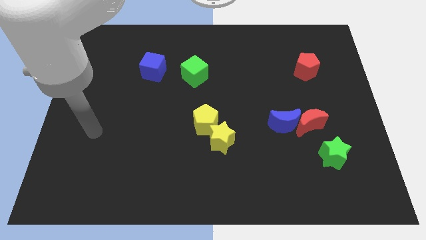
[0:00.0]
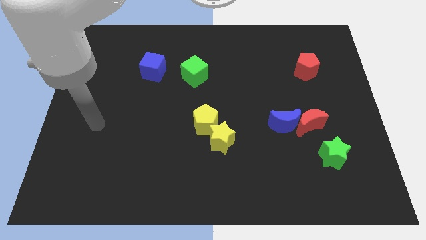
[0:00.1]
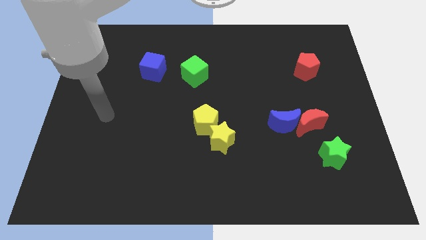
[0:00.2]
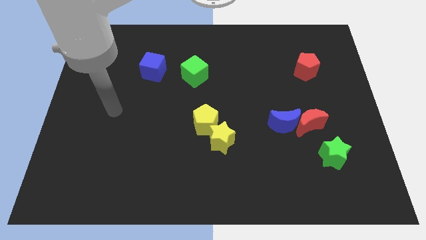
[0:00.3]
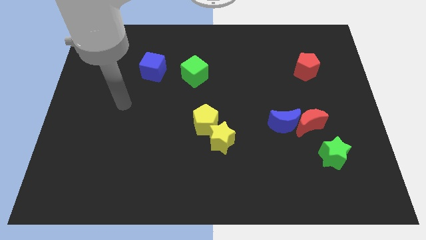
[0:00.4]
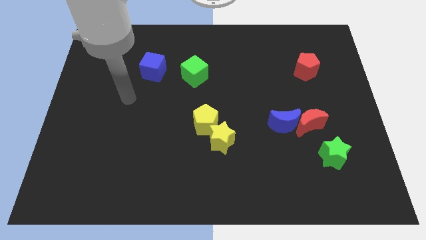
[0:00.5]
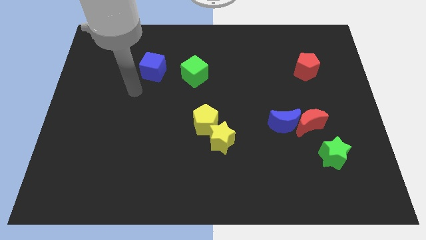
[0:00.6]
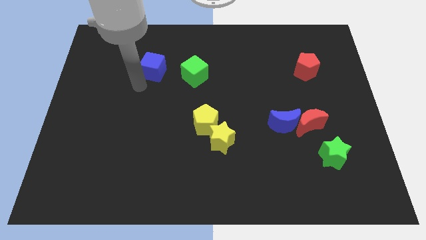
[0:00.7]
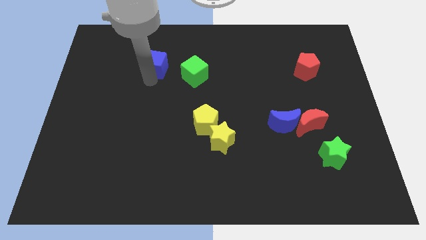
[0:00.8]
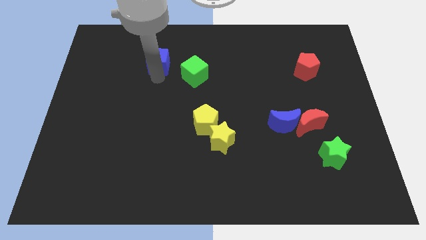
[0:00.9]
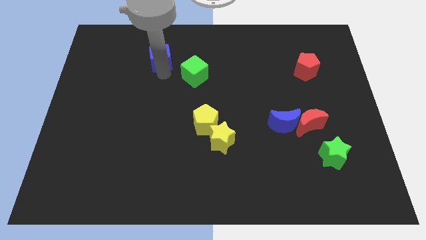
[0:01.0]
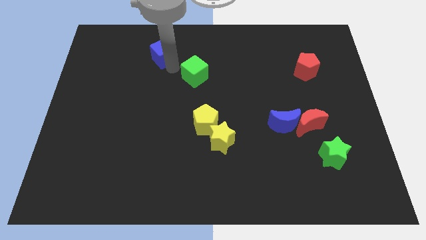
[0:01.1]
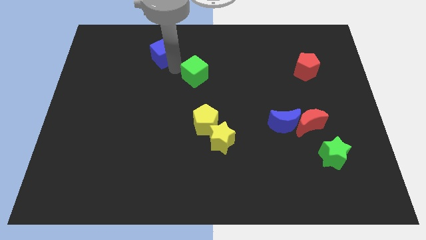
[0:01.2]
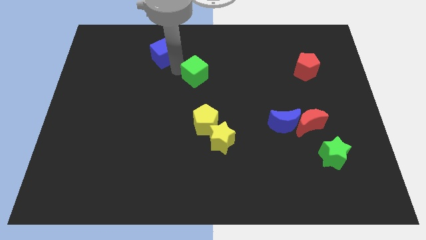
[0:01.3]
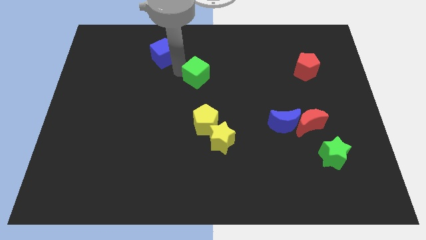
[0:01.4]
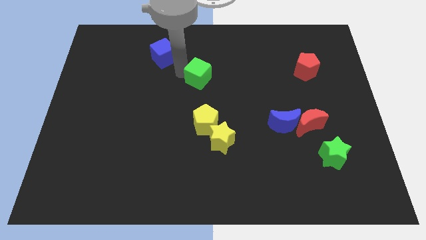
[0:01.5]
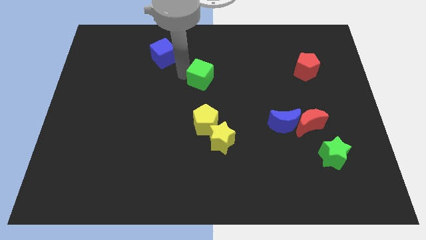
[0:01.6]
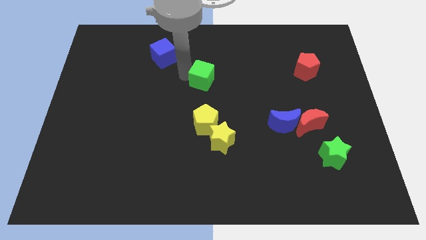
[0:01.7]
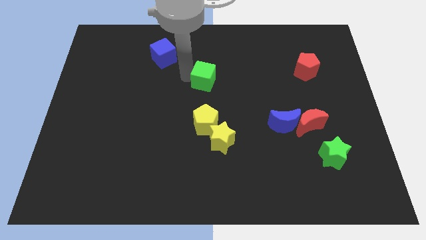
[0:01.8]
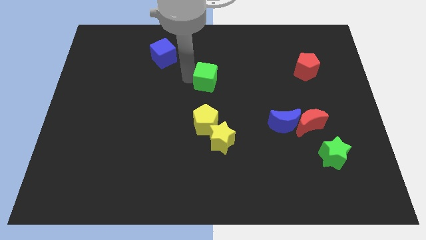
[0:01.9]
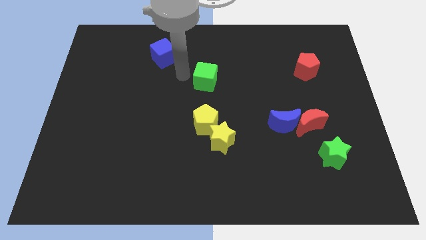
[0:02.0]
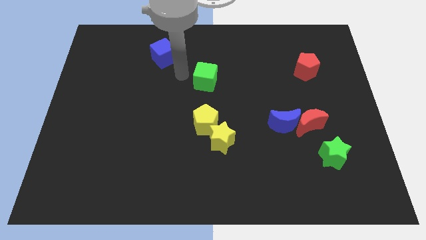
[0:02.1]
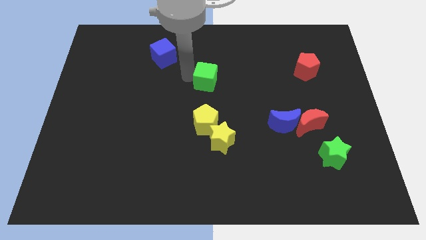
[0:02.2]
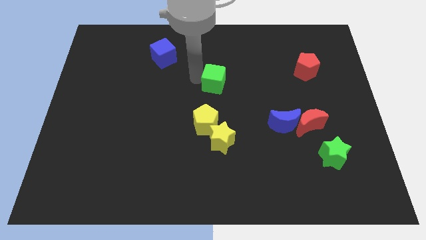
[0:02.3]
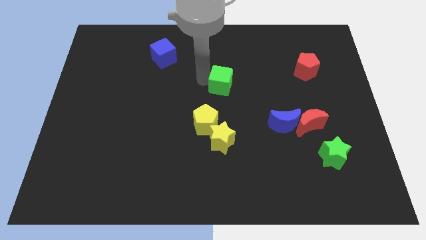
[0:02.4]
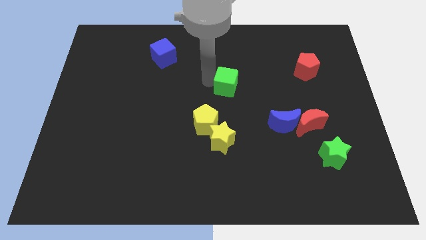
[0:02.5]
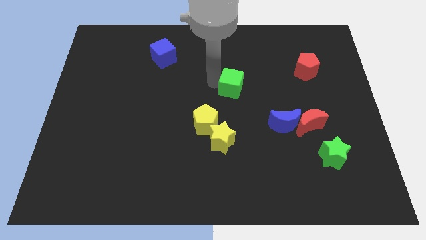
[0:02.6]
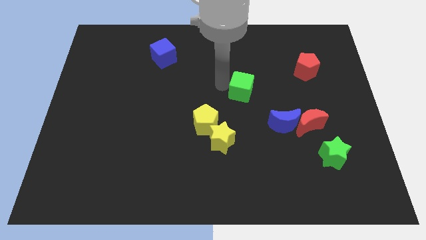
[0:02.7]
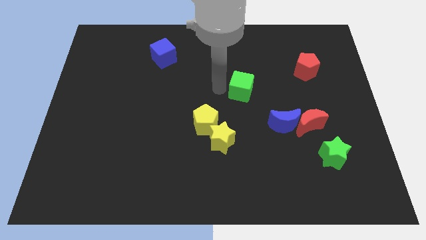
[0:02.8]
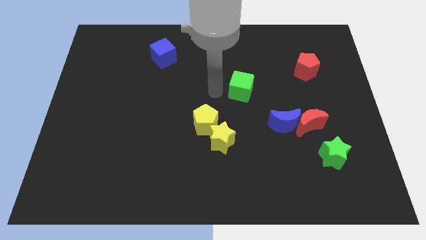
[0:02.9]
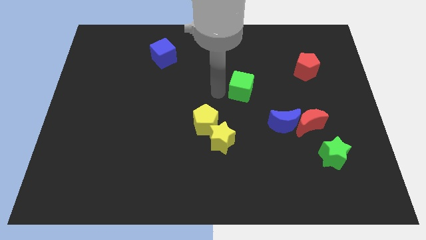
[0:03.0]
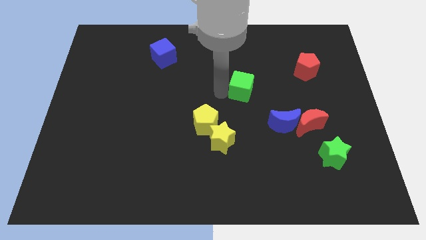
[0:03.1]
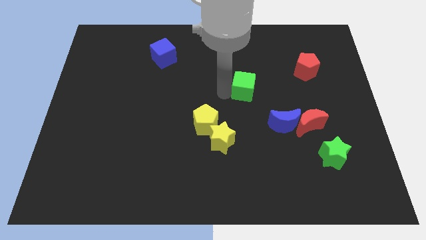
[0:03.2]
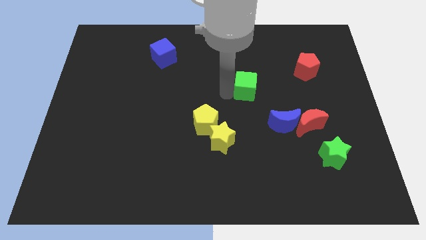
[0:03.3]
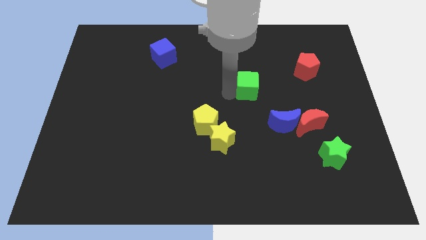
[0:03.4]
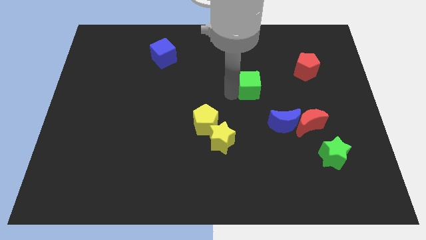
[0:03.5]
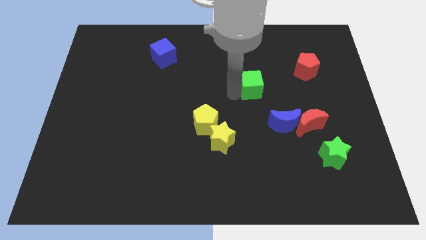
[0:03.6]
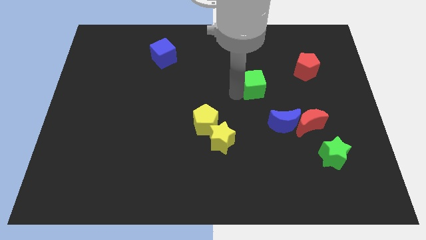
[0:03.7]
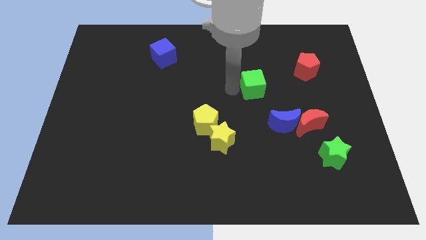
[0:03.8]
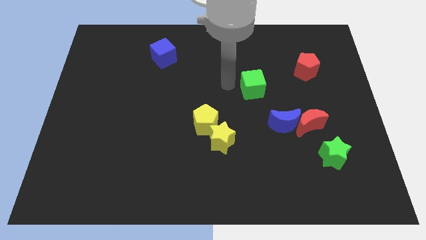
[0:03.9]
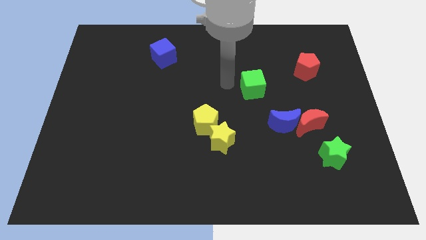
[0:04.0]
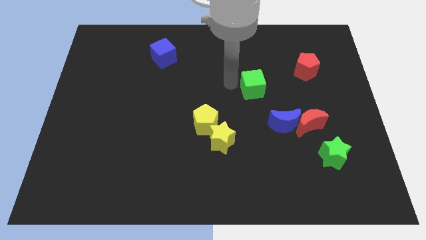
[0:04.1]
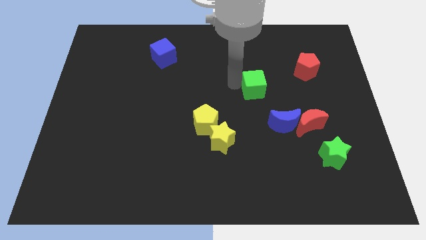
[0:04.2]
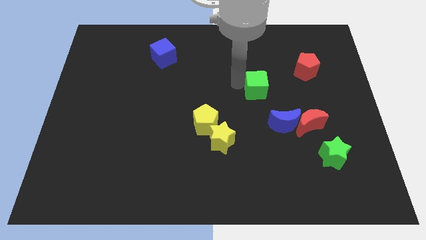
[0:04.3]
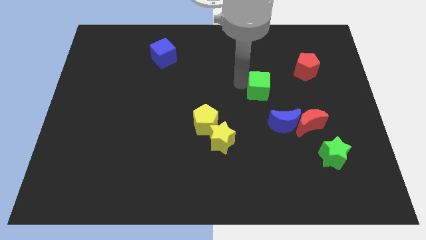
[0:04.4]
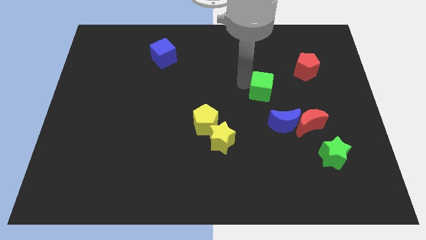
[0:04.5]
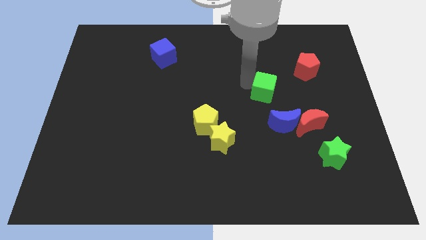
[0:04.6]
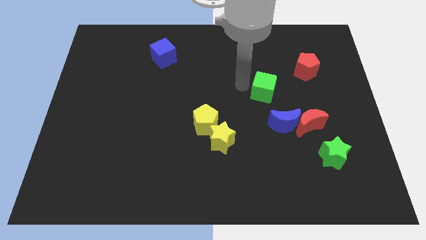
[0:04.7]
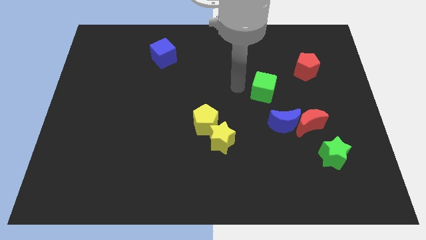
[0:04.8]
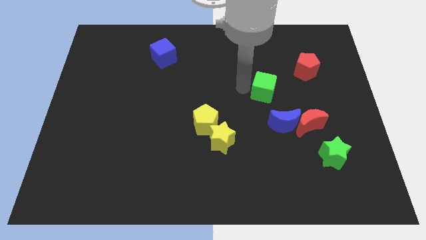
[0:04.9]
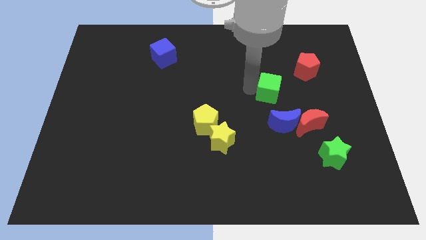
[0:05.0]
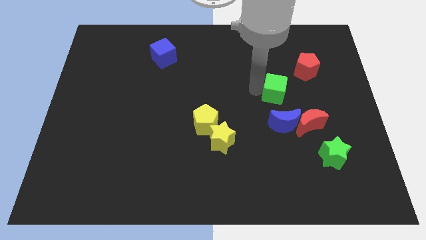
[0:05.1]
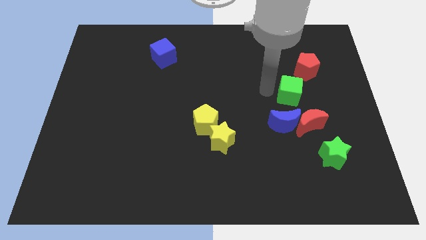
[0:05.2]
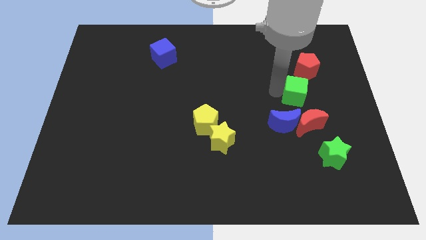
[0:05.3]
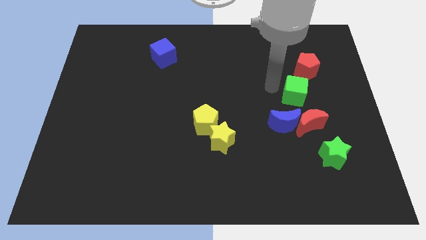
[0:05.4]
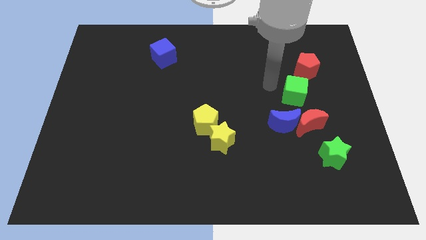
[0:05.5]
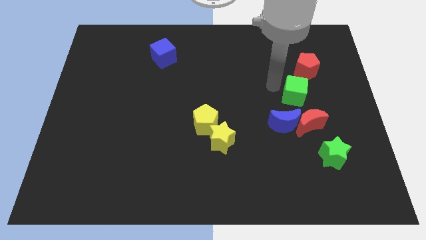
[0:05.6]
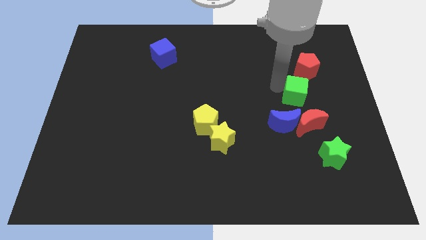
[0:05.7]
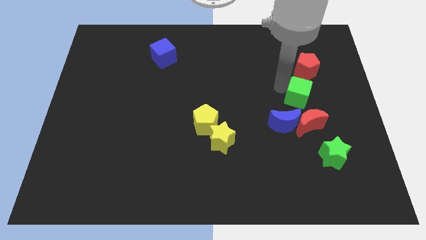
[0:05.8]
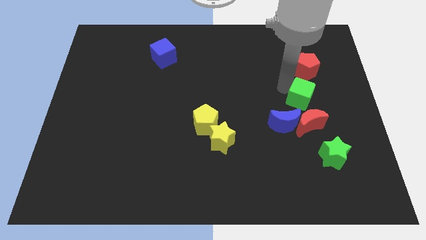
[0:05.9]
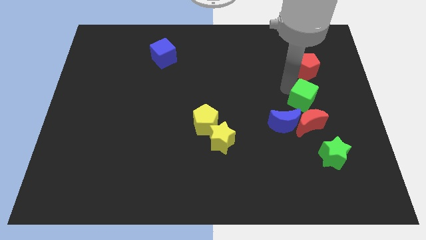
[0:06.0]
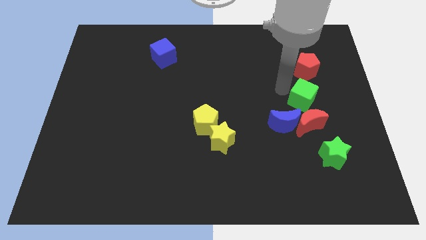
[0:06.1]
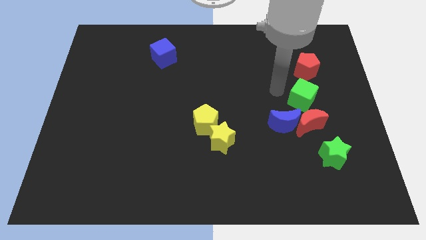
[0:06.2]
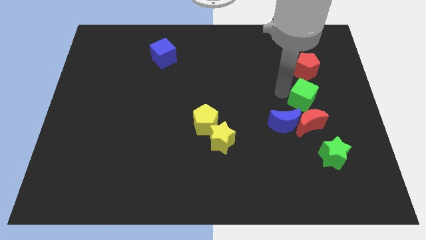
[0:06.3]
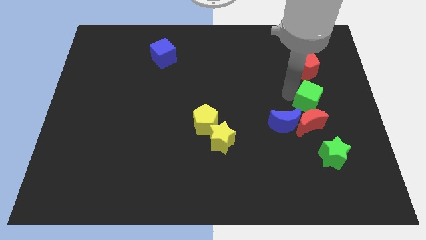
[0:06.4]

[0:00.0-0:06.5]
put the green cube diagonally up and to the right of the red moon

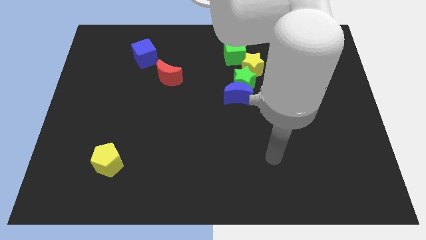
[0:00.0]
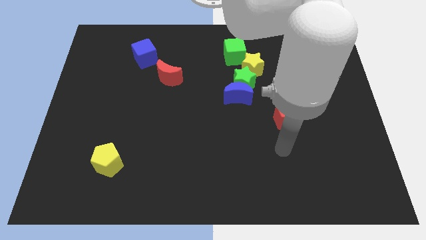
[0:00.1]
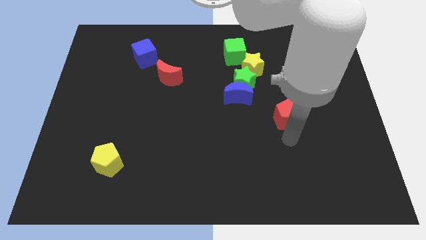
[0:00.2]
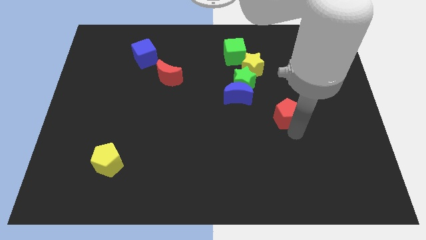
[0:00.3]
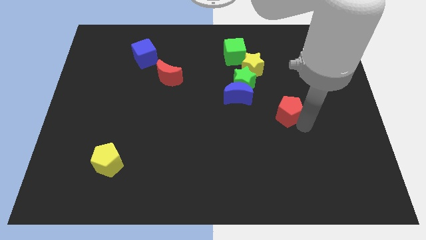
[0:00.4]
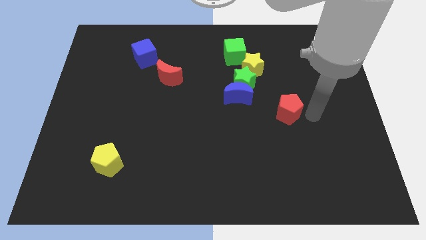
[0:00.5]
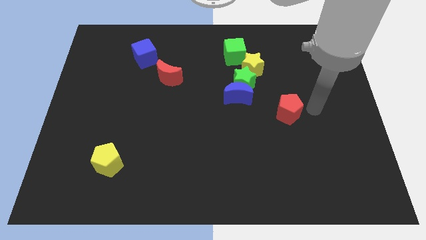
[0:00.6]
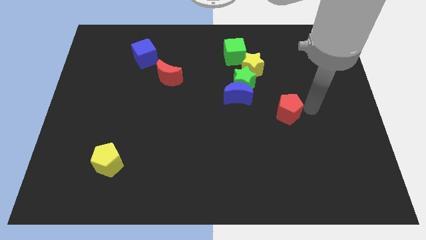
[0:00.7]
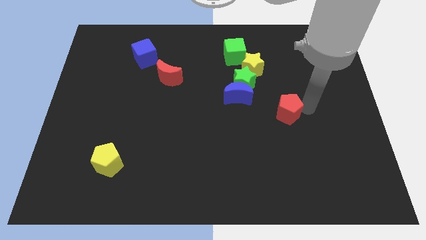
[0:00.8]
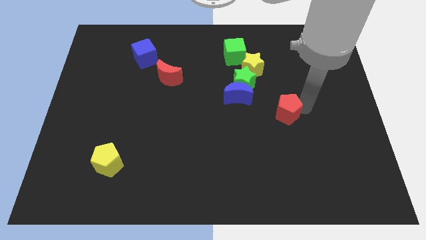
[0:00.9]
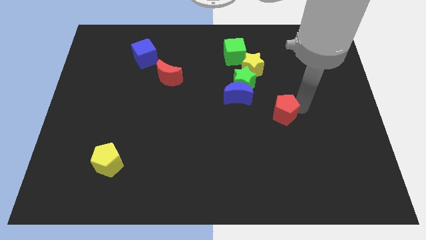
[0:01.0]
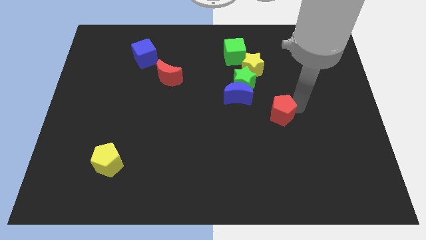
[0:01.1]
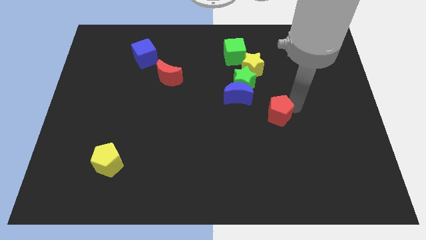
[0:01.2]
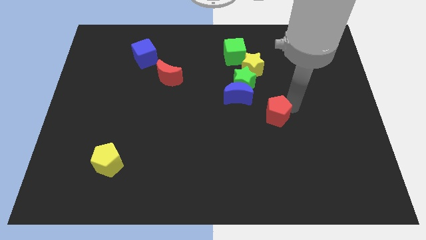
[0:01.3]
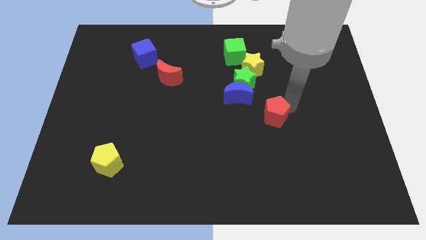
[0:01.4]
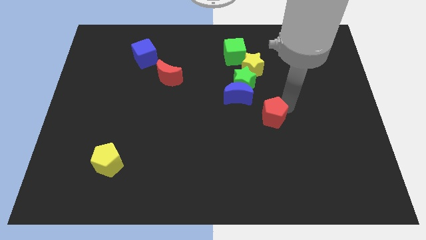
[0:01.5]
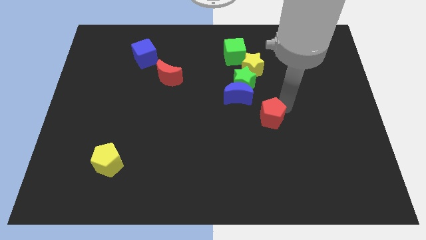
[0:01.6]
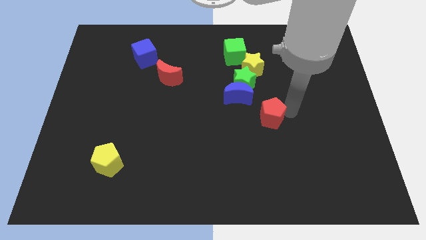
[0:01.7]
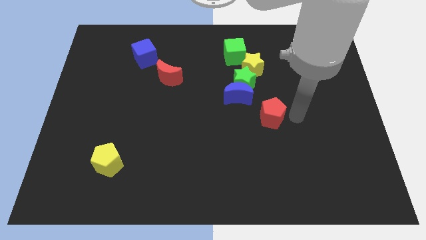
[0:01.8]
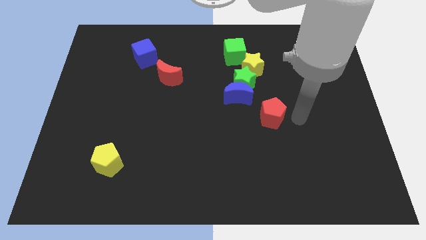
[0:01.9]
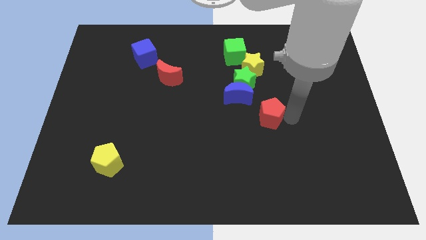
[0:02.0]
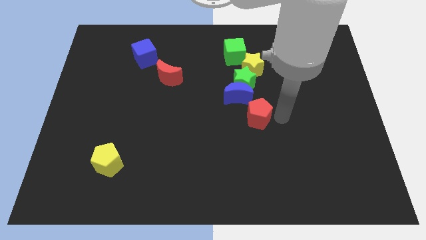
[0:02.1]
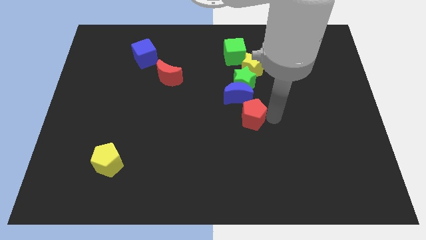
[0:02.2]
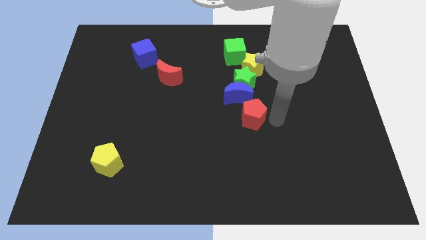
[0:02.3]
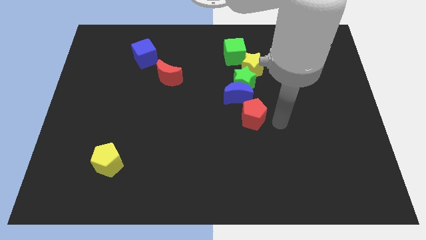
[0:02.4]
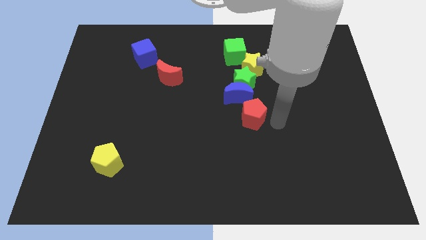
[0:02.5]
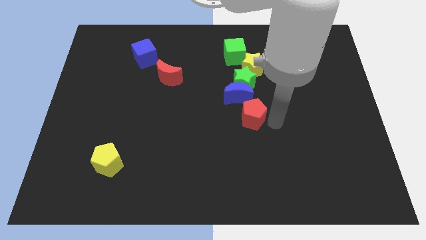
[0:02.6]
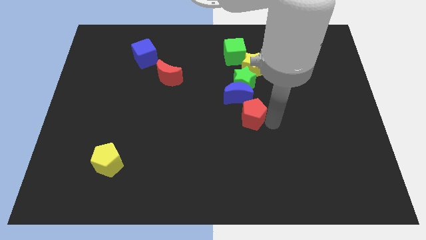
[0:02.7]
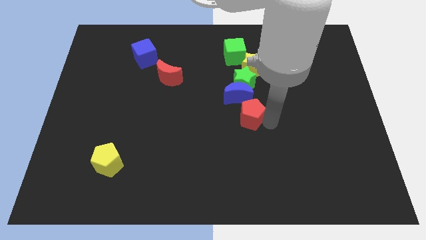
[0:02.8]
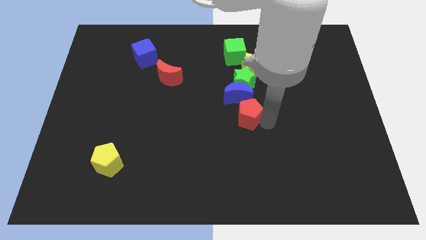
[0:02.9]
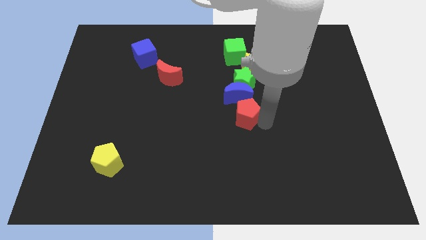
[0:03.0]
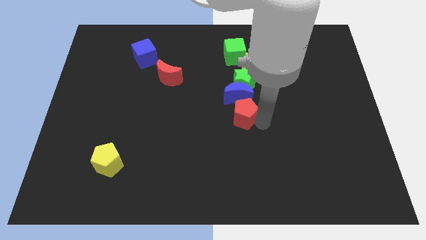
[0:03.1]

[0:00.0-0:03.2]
push the red pentagon to the bottom left of the blue moon
